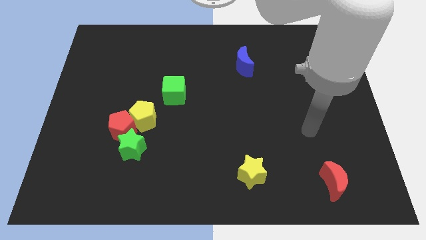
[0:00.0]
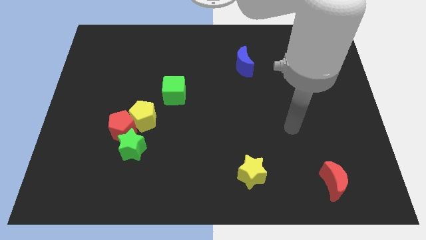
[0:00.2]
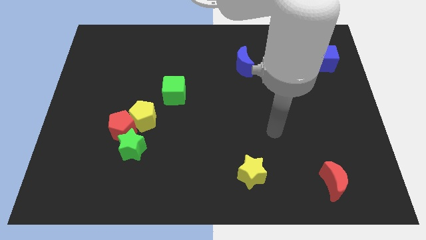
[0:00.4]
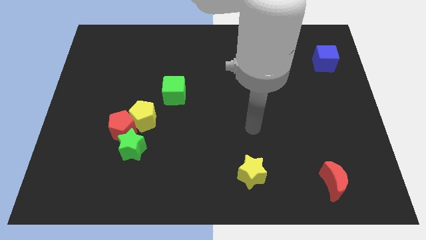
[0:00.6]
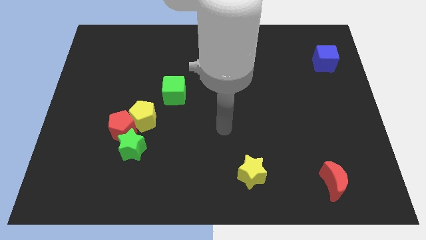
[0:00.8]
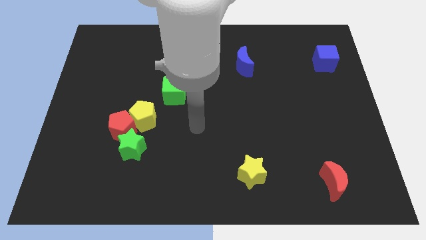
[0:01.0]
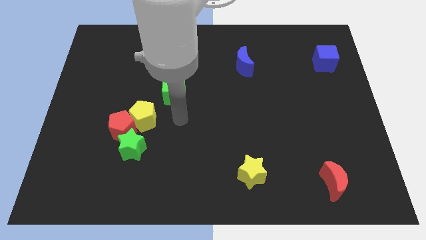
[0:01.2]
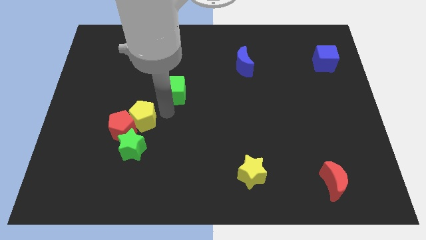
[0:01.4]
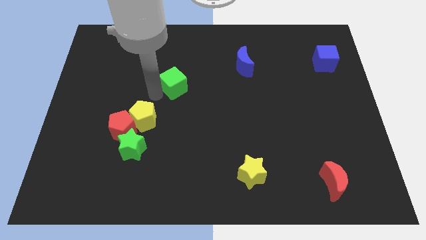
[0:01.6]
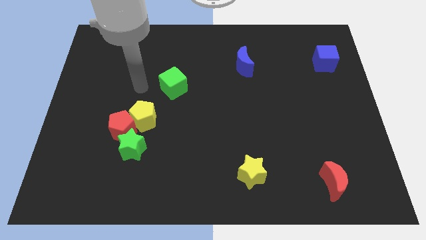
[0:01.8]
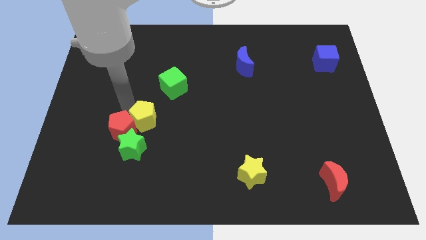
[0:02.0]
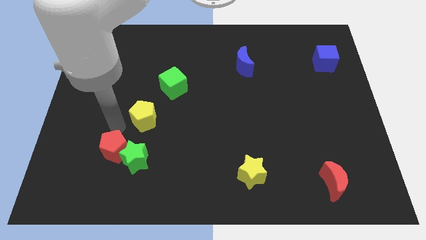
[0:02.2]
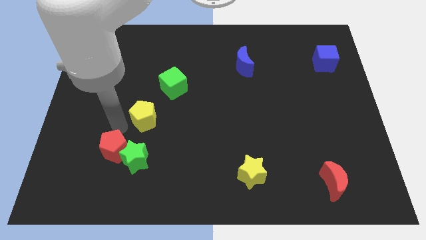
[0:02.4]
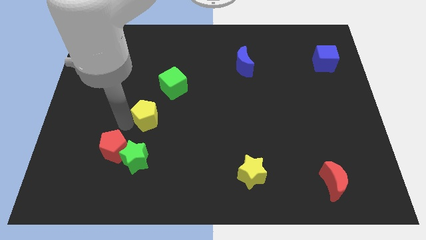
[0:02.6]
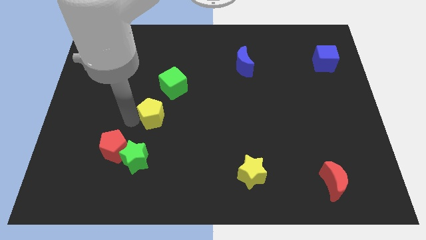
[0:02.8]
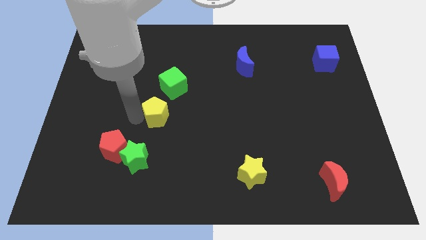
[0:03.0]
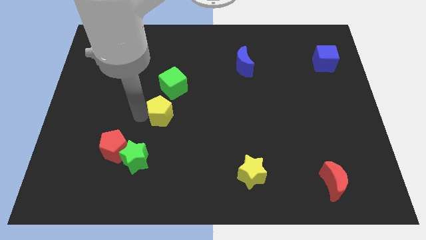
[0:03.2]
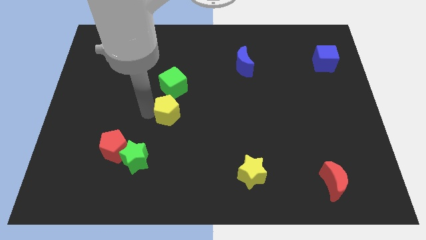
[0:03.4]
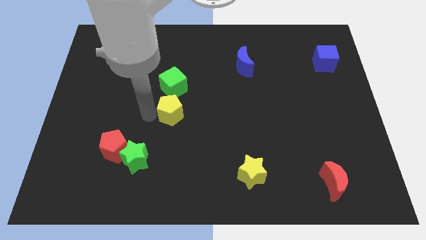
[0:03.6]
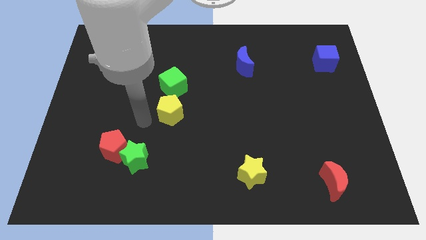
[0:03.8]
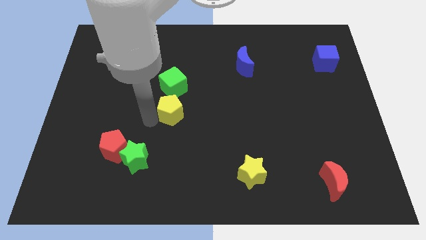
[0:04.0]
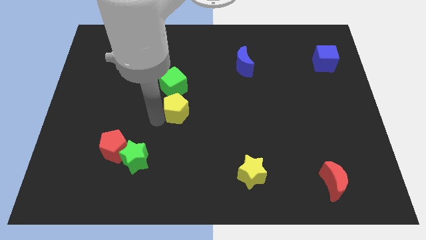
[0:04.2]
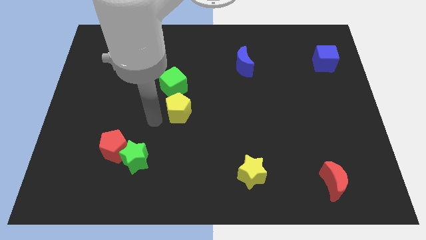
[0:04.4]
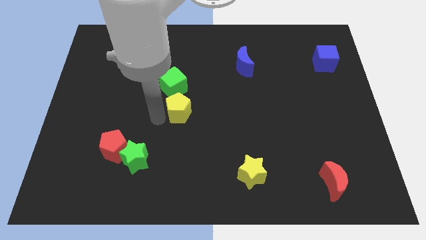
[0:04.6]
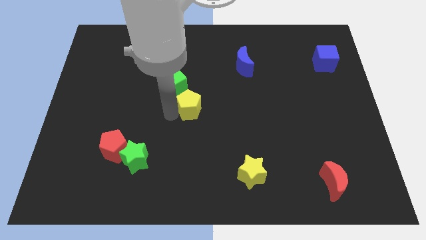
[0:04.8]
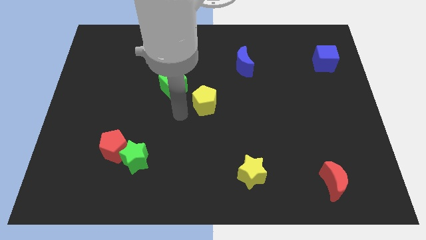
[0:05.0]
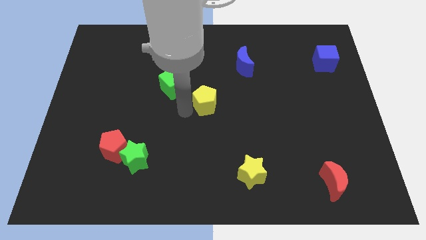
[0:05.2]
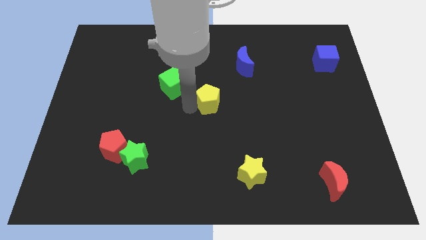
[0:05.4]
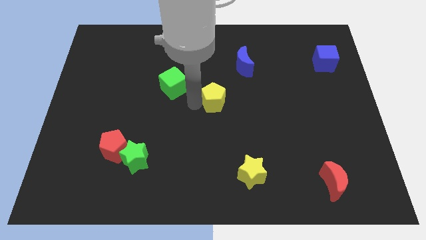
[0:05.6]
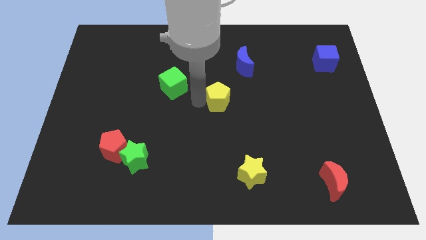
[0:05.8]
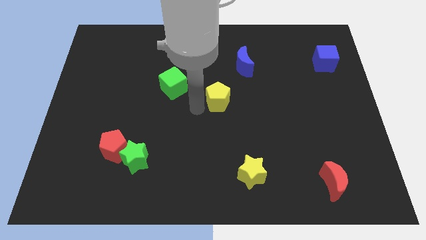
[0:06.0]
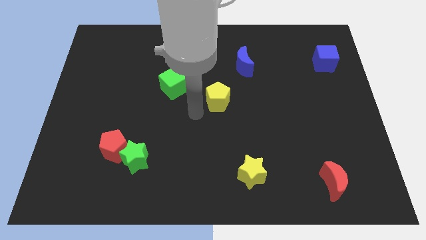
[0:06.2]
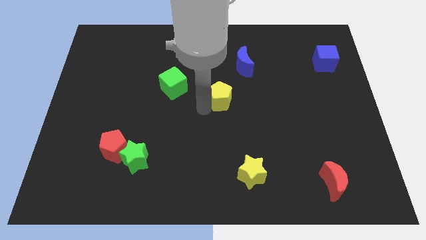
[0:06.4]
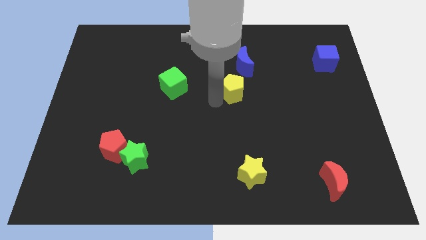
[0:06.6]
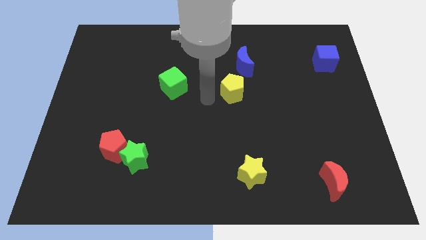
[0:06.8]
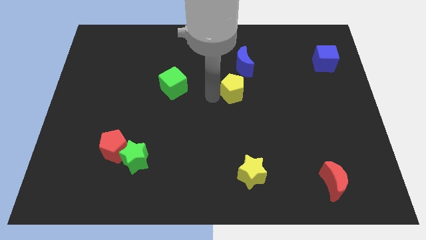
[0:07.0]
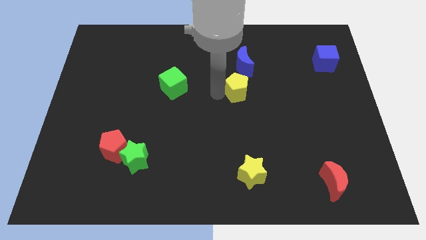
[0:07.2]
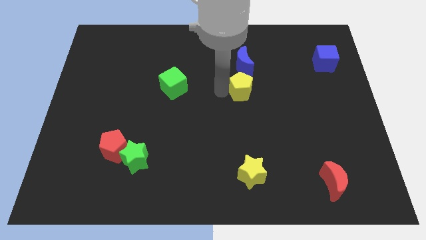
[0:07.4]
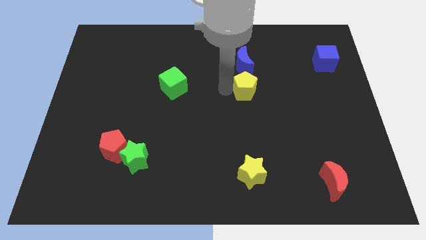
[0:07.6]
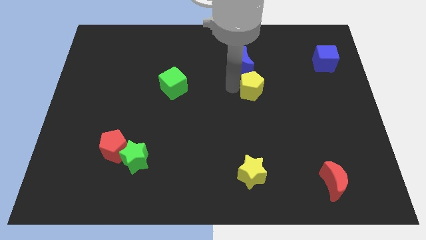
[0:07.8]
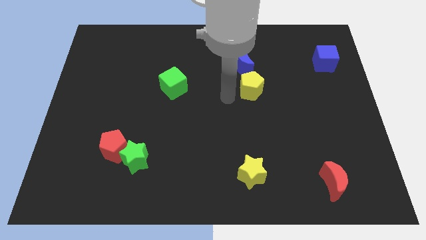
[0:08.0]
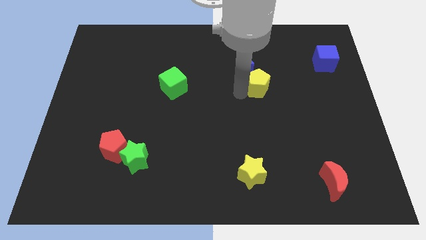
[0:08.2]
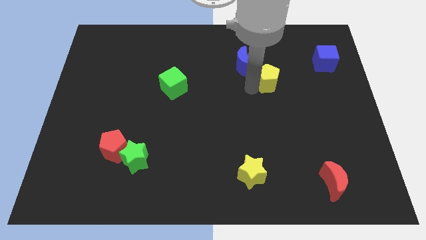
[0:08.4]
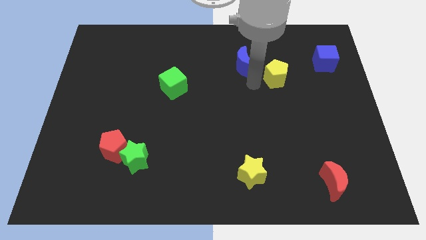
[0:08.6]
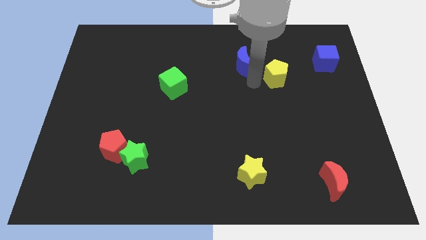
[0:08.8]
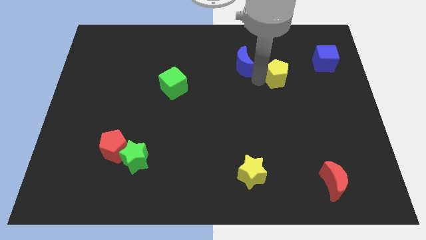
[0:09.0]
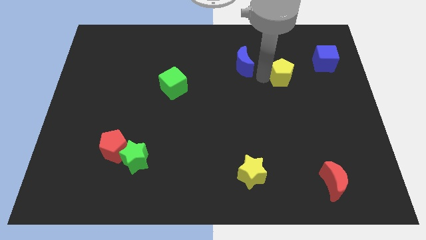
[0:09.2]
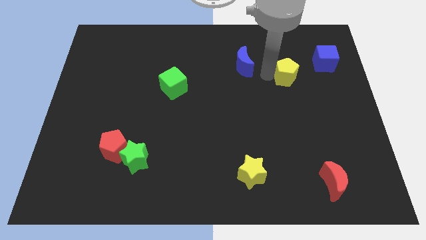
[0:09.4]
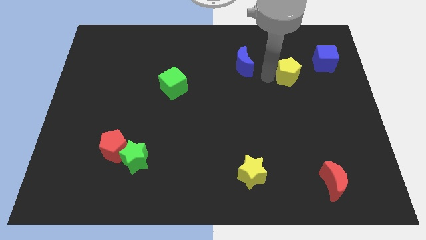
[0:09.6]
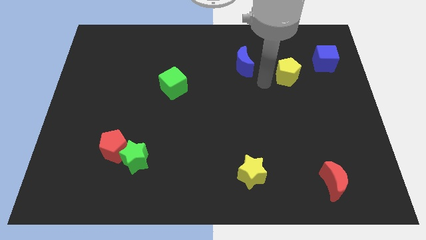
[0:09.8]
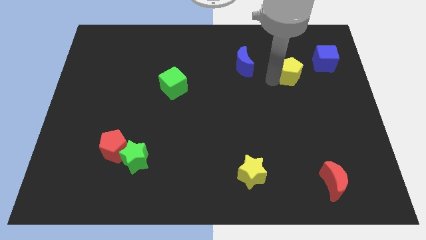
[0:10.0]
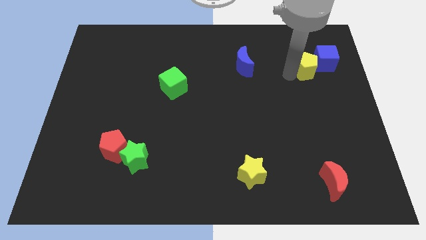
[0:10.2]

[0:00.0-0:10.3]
put the yellow pentagon next to the blue cube

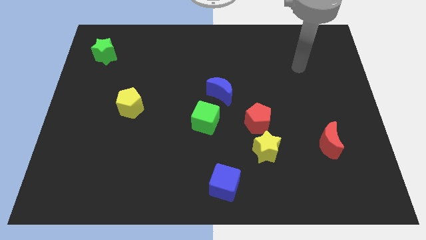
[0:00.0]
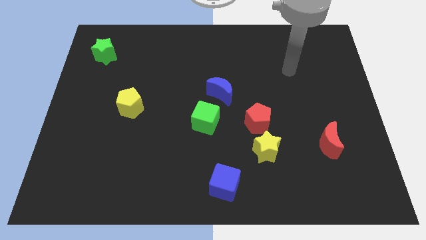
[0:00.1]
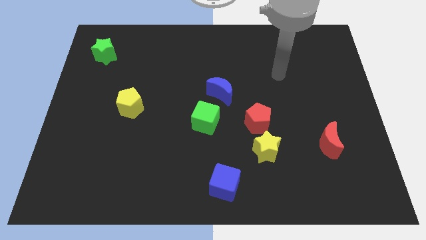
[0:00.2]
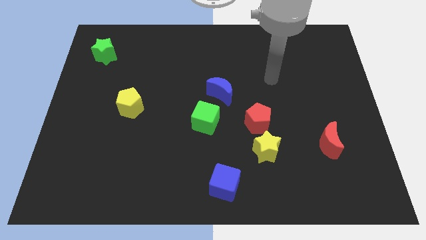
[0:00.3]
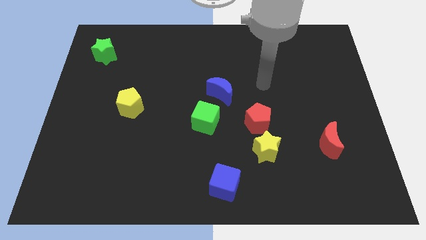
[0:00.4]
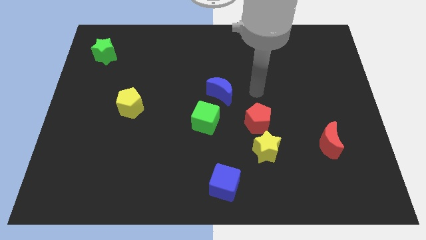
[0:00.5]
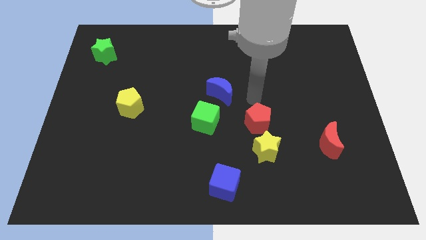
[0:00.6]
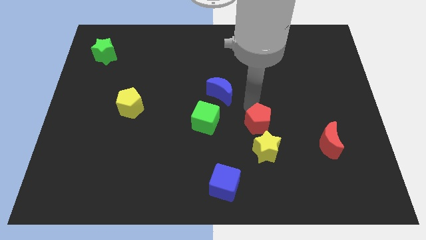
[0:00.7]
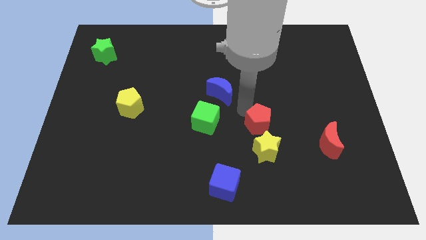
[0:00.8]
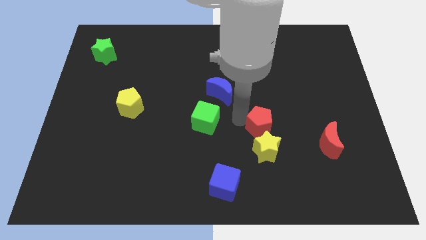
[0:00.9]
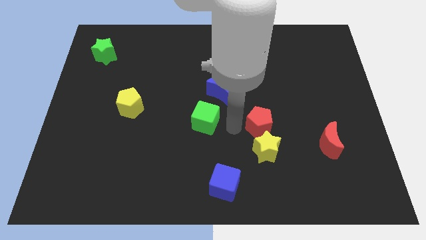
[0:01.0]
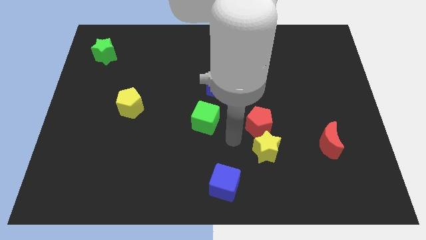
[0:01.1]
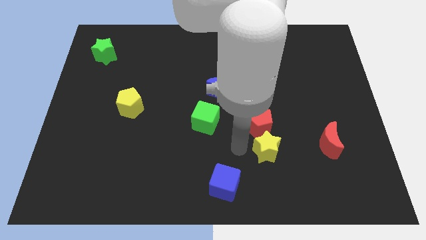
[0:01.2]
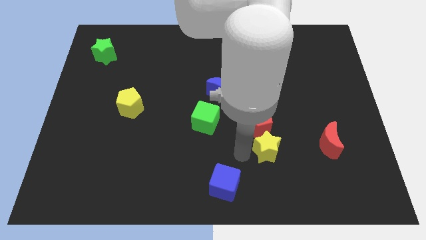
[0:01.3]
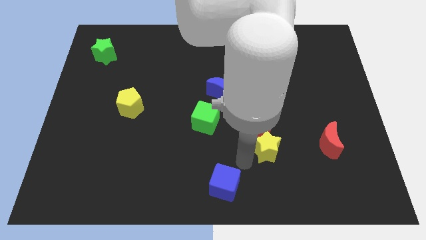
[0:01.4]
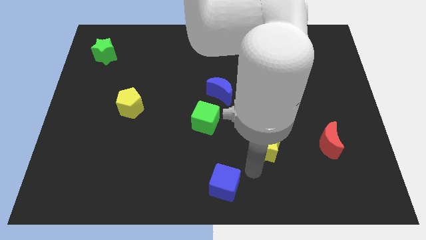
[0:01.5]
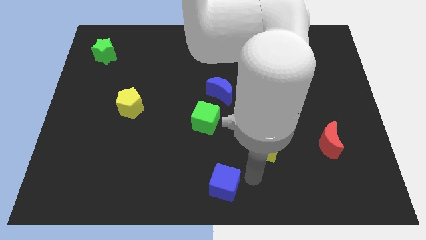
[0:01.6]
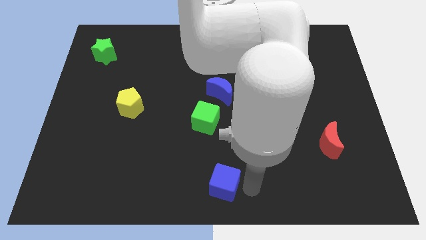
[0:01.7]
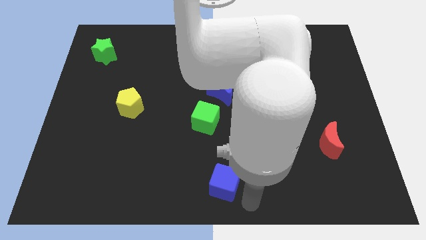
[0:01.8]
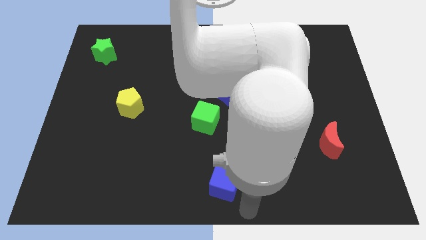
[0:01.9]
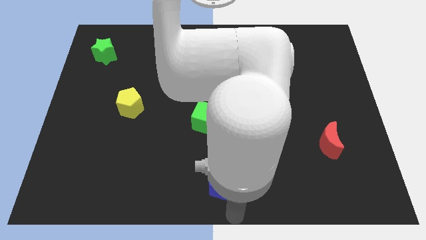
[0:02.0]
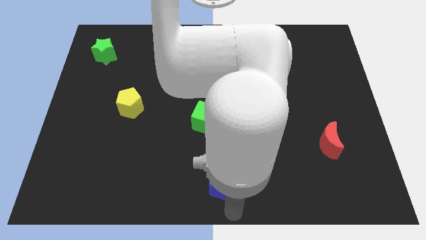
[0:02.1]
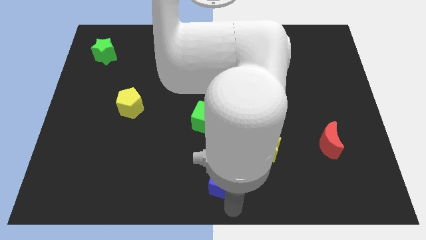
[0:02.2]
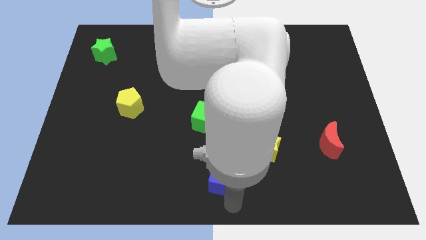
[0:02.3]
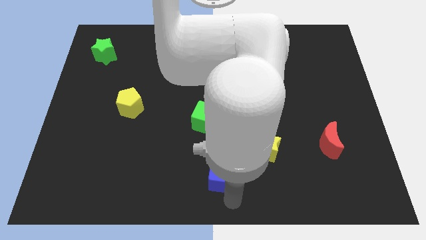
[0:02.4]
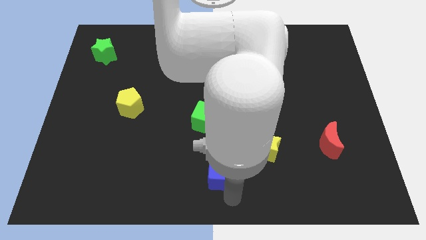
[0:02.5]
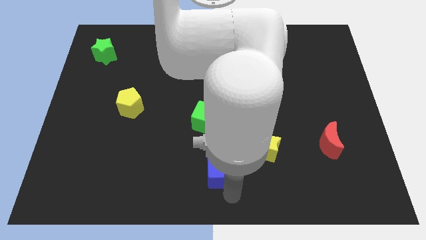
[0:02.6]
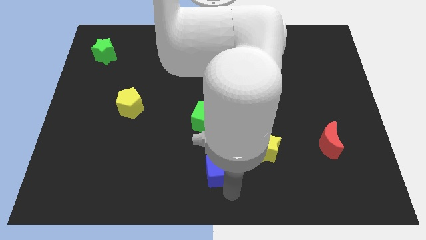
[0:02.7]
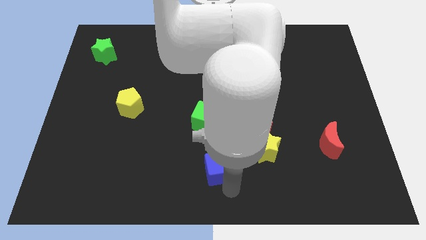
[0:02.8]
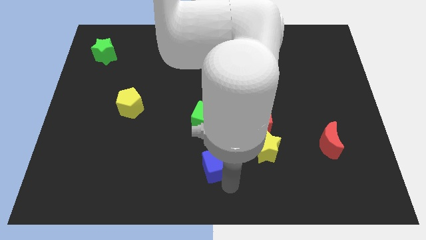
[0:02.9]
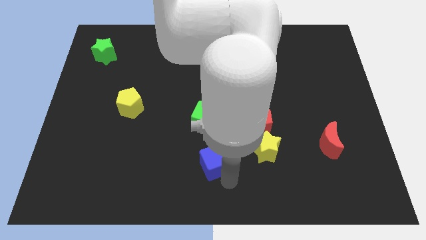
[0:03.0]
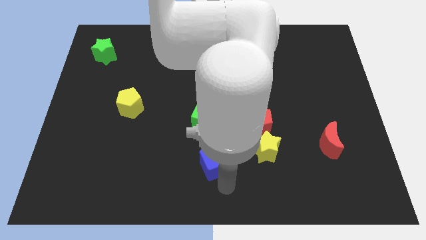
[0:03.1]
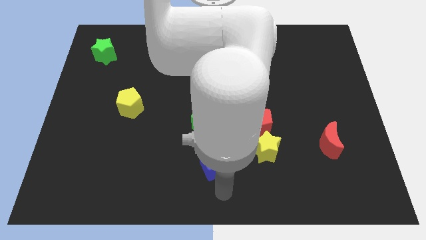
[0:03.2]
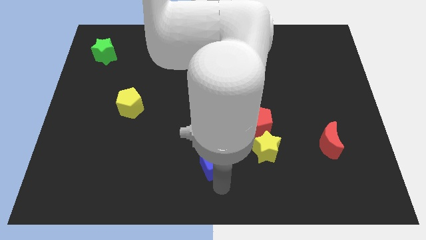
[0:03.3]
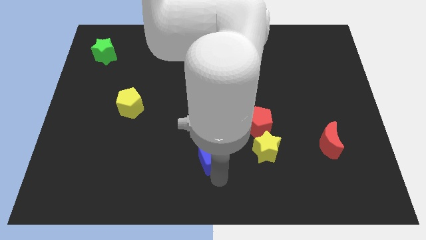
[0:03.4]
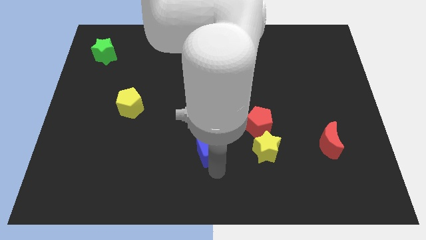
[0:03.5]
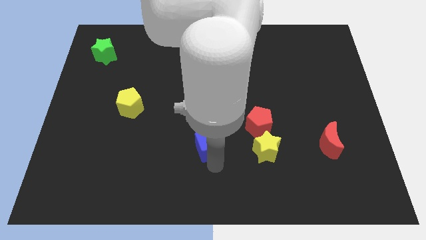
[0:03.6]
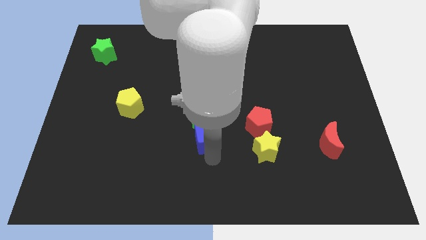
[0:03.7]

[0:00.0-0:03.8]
push the blue cube next to the green cube
